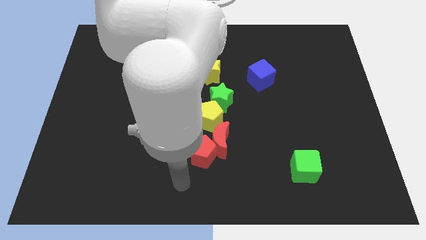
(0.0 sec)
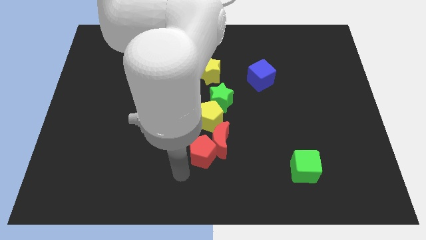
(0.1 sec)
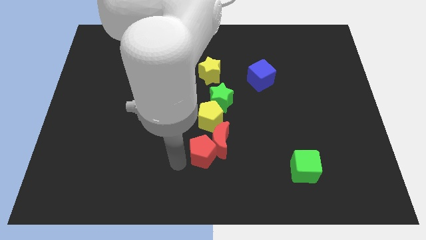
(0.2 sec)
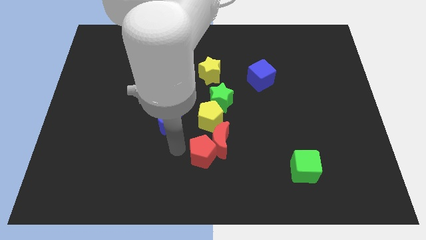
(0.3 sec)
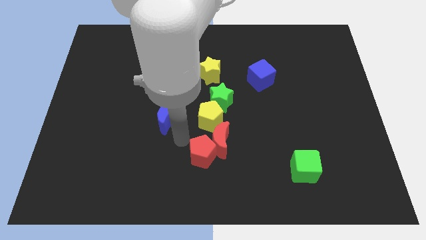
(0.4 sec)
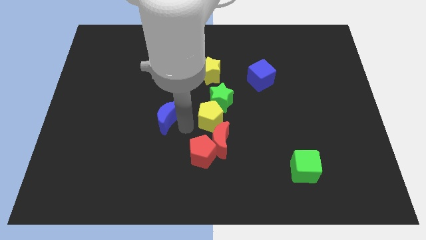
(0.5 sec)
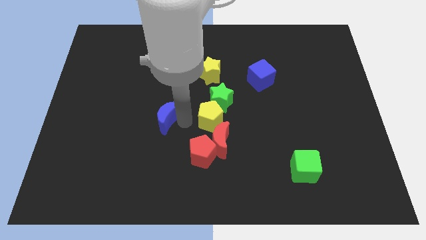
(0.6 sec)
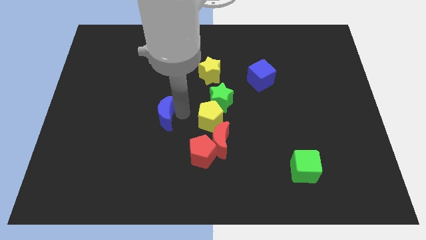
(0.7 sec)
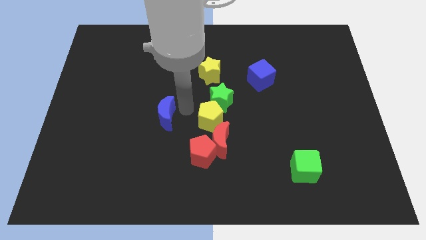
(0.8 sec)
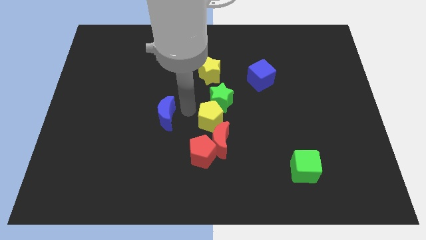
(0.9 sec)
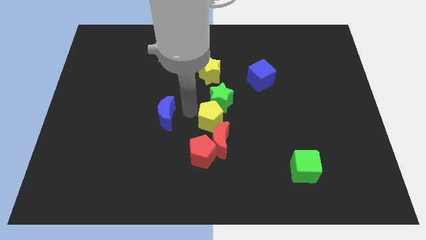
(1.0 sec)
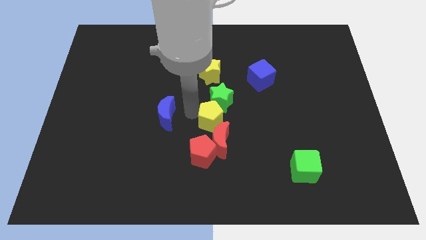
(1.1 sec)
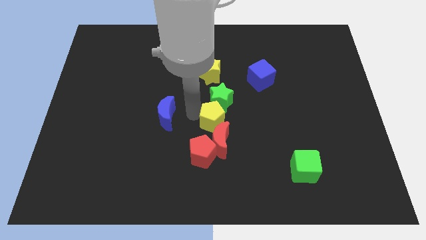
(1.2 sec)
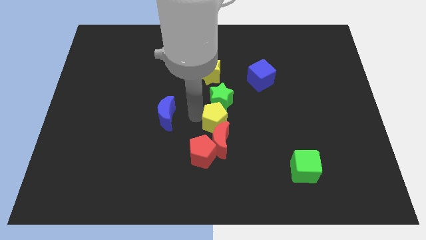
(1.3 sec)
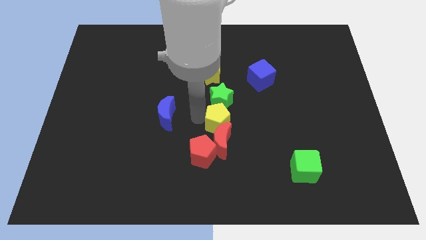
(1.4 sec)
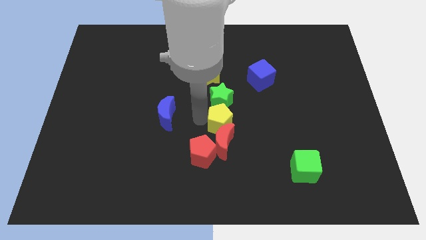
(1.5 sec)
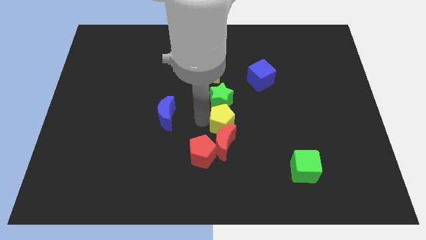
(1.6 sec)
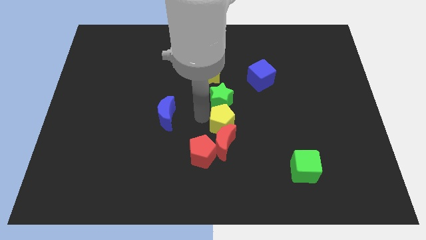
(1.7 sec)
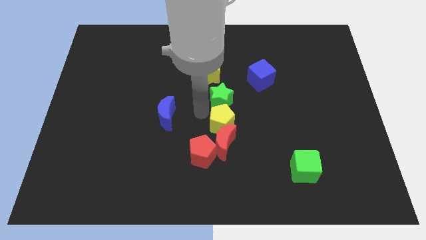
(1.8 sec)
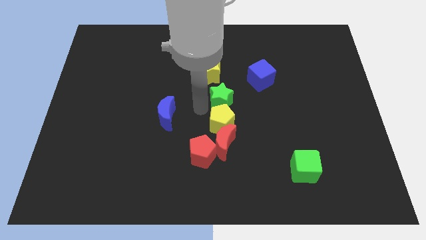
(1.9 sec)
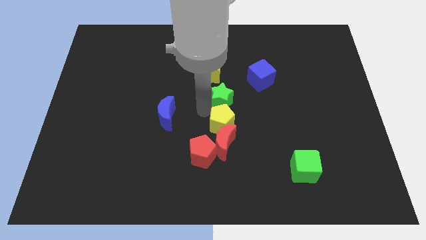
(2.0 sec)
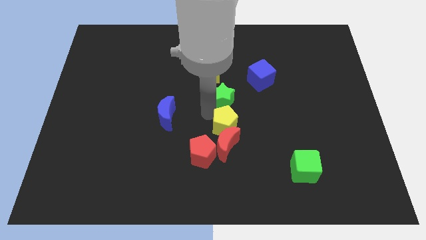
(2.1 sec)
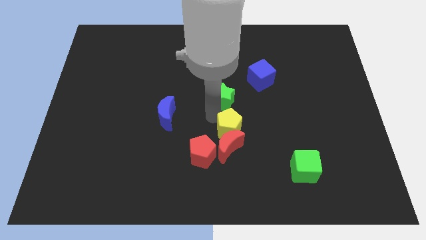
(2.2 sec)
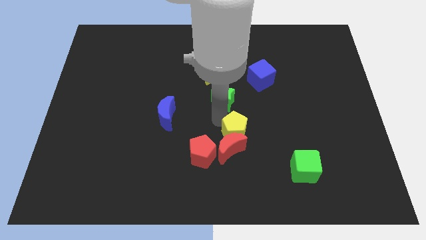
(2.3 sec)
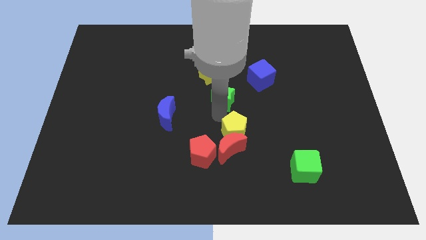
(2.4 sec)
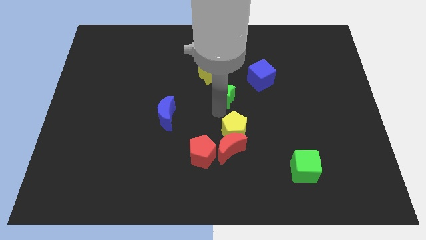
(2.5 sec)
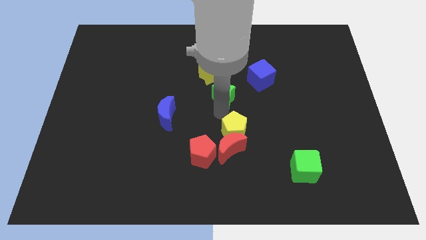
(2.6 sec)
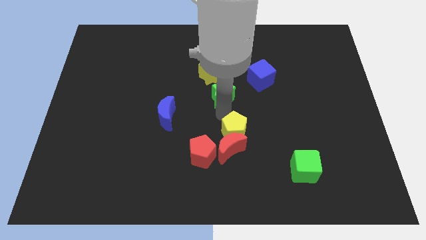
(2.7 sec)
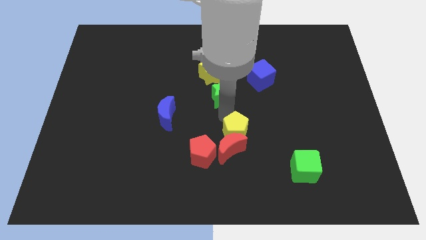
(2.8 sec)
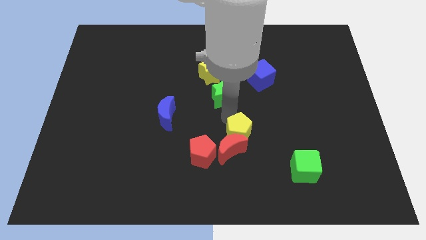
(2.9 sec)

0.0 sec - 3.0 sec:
slide the yellow pentagon down and then to the right a little bit

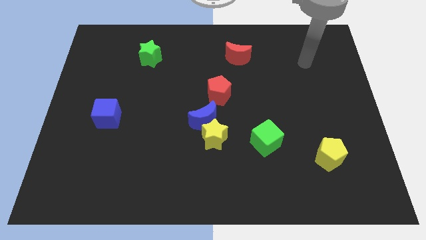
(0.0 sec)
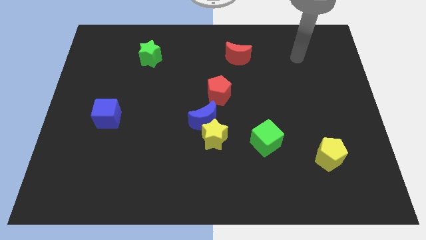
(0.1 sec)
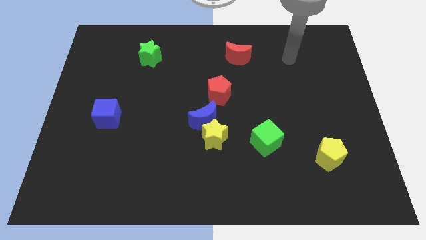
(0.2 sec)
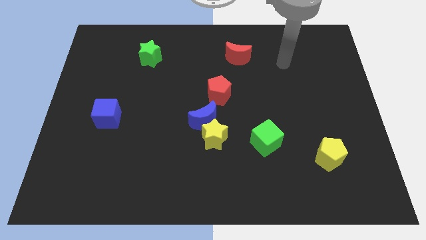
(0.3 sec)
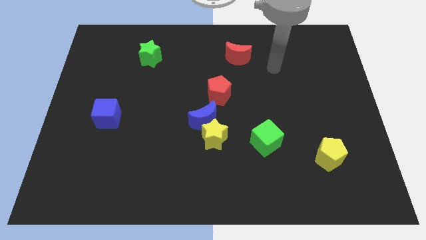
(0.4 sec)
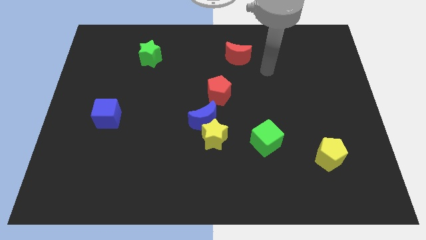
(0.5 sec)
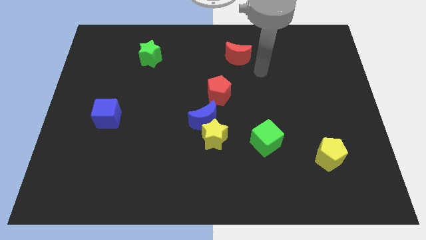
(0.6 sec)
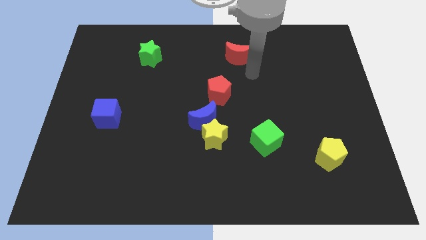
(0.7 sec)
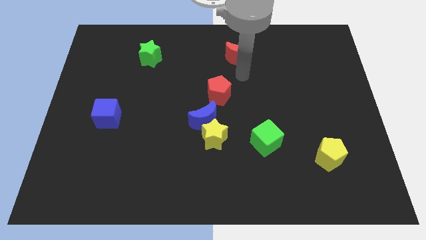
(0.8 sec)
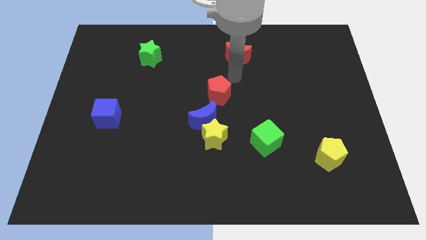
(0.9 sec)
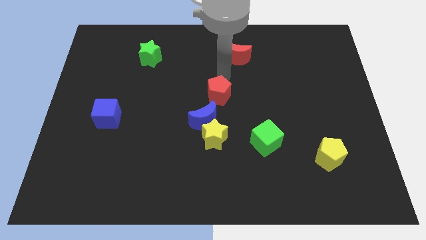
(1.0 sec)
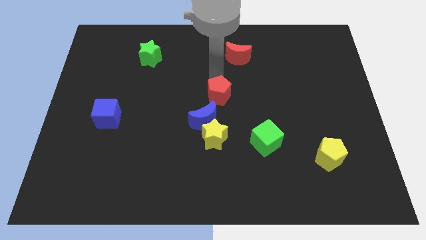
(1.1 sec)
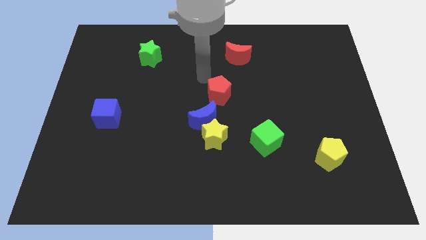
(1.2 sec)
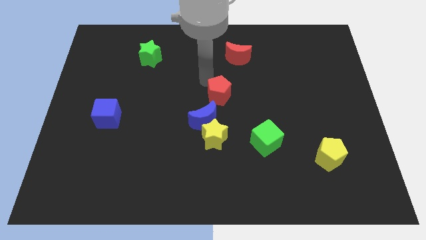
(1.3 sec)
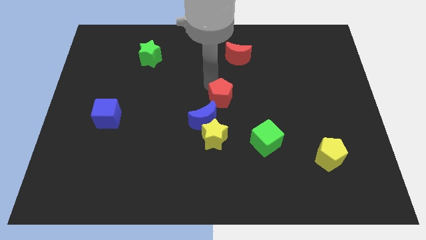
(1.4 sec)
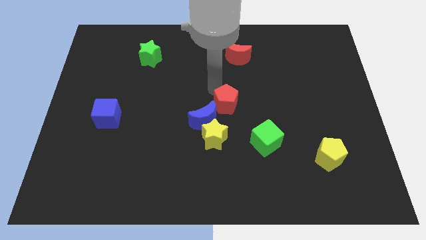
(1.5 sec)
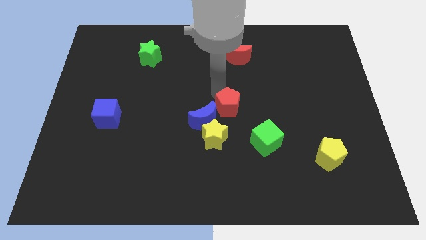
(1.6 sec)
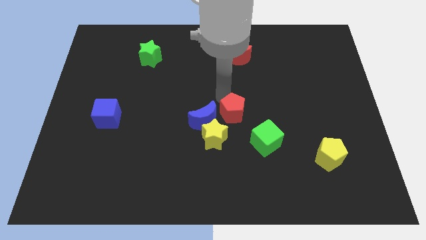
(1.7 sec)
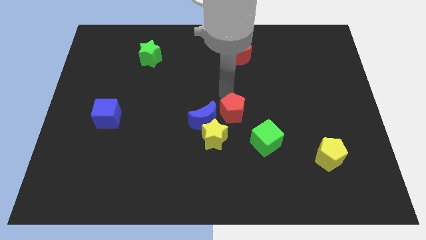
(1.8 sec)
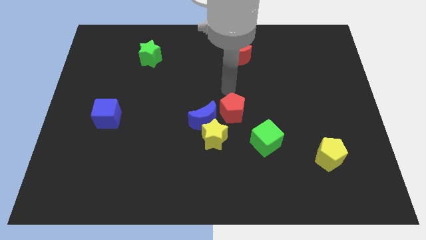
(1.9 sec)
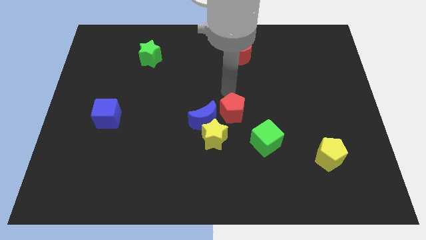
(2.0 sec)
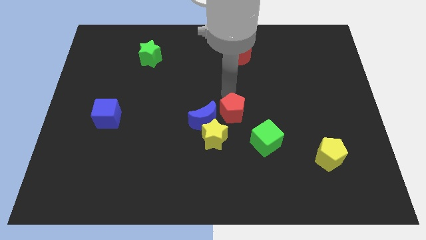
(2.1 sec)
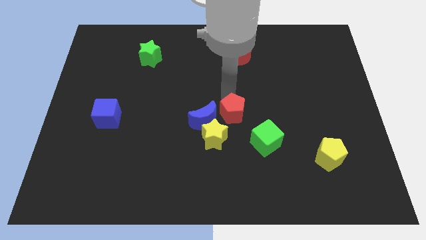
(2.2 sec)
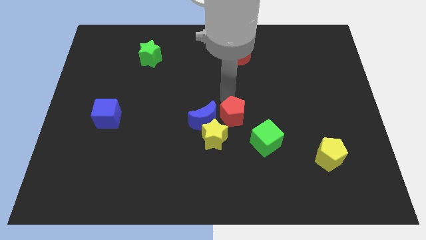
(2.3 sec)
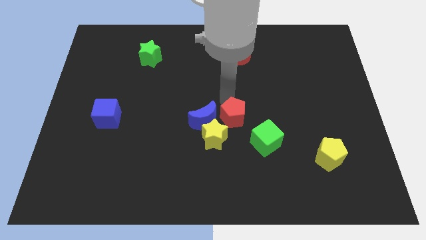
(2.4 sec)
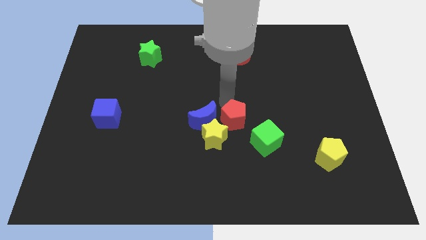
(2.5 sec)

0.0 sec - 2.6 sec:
move the red pentagon down slightly

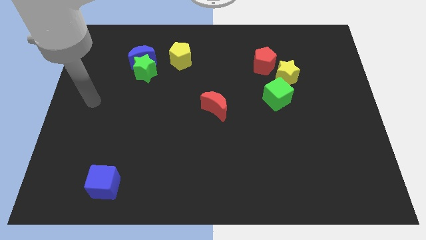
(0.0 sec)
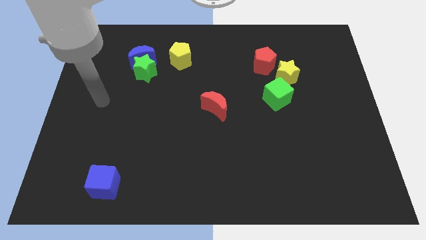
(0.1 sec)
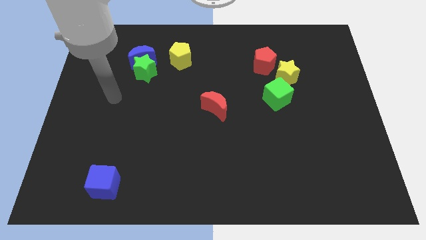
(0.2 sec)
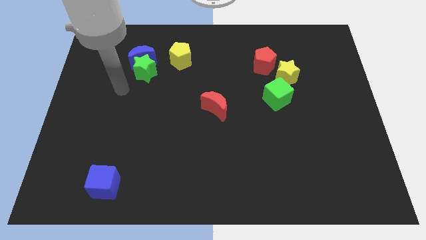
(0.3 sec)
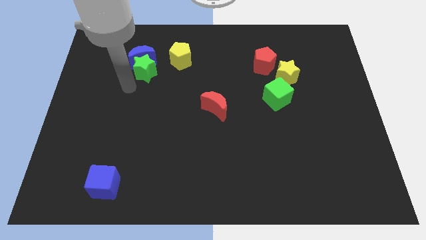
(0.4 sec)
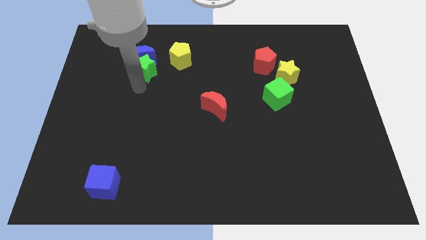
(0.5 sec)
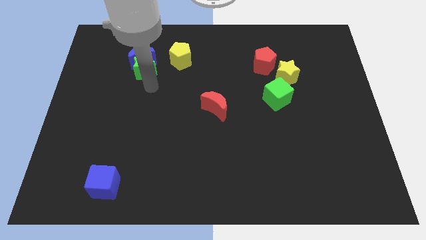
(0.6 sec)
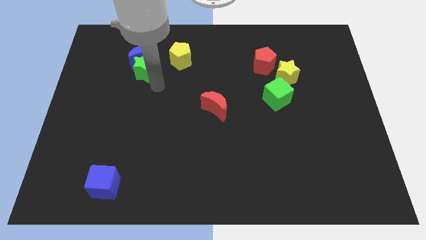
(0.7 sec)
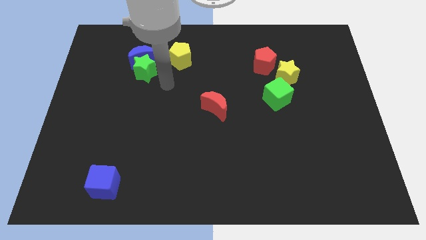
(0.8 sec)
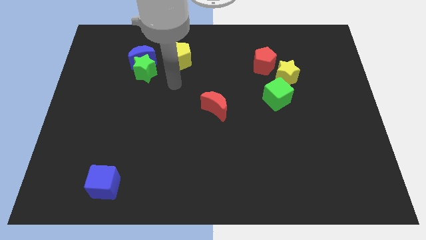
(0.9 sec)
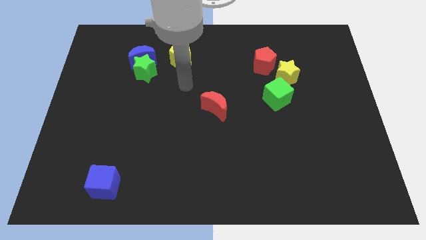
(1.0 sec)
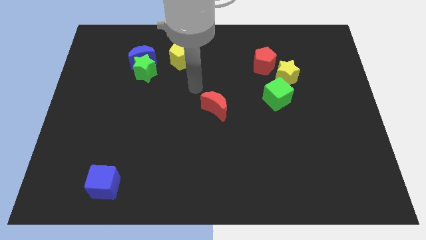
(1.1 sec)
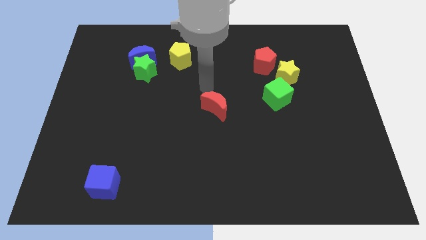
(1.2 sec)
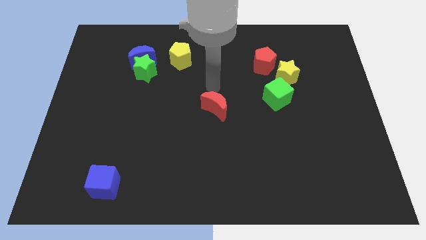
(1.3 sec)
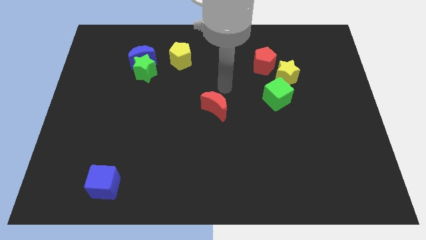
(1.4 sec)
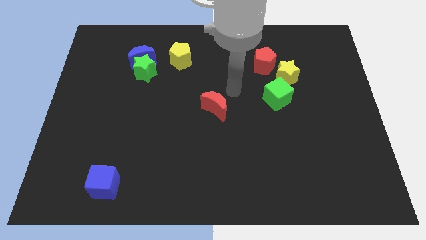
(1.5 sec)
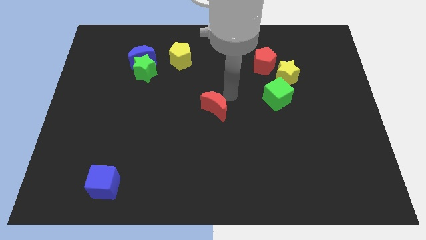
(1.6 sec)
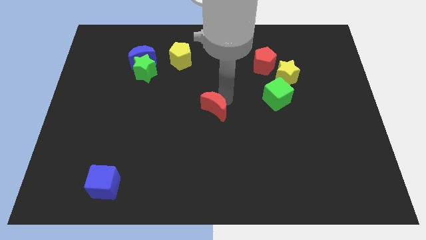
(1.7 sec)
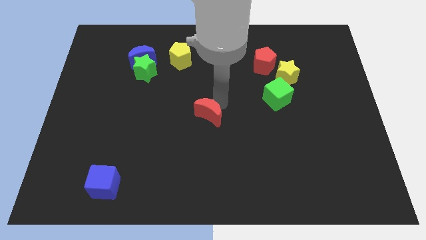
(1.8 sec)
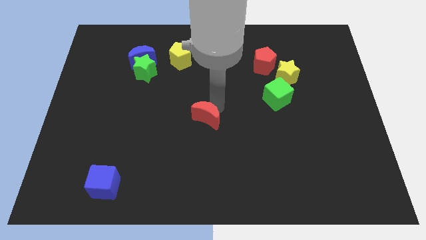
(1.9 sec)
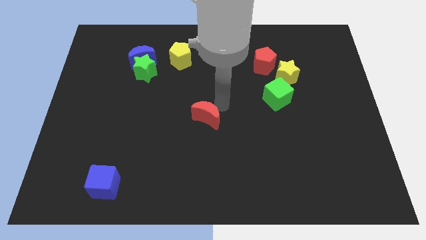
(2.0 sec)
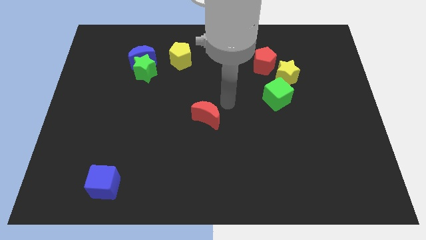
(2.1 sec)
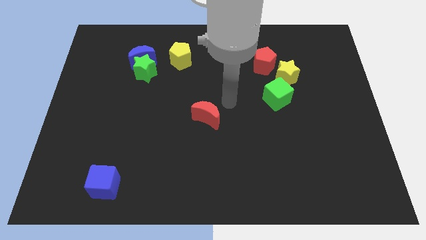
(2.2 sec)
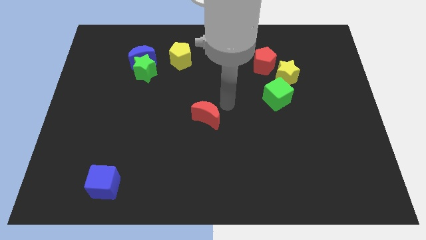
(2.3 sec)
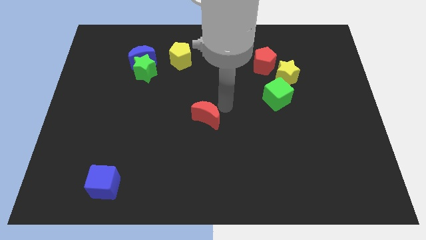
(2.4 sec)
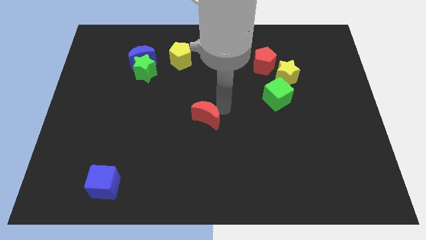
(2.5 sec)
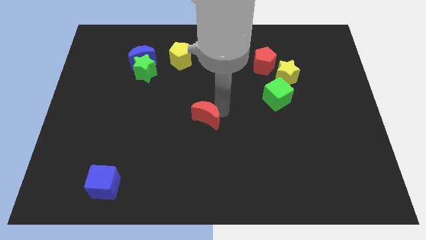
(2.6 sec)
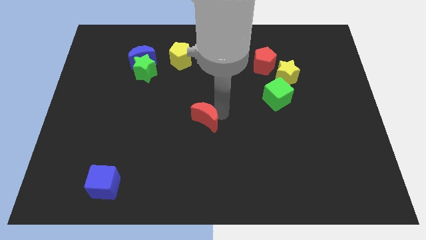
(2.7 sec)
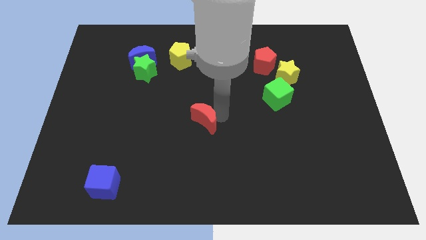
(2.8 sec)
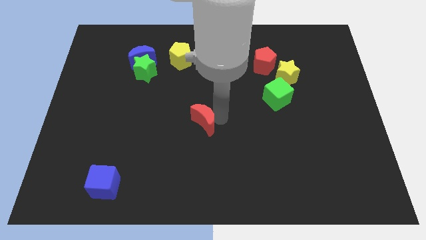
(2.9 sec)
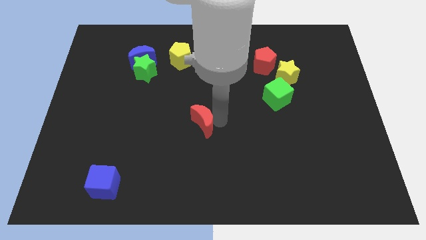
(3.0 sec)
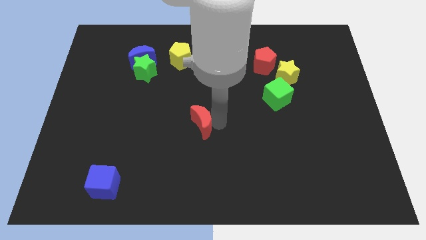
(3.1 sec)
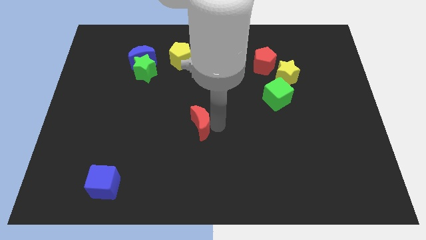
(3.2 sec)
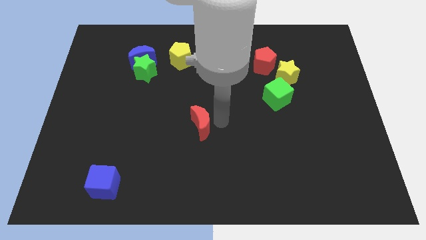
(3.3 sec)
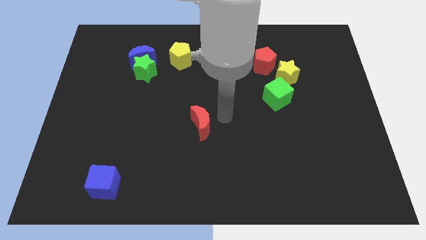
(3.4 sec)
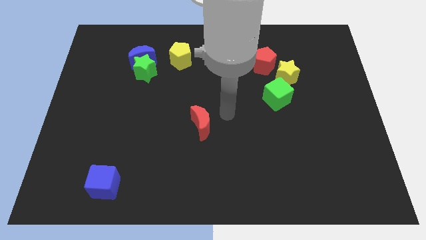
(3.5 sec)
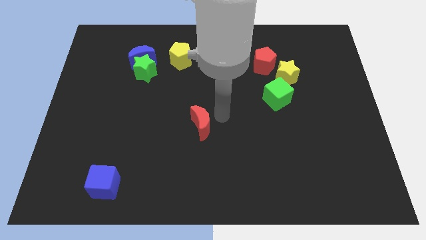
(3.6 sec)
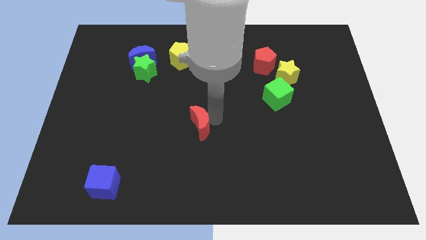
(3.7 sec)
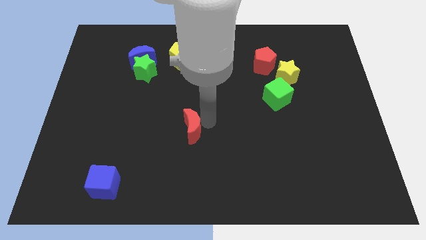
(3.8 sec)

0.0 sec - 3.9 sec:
move the red moon down and left diagonally somewhat
